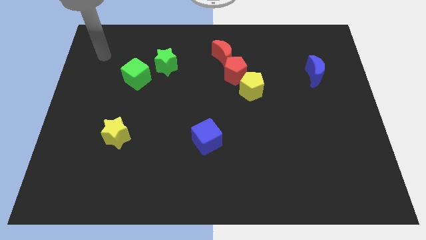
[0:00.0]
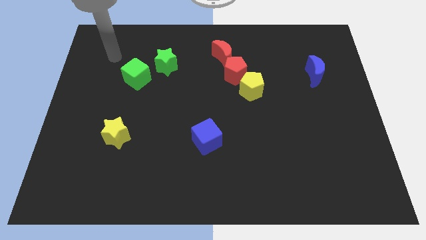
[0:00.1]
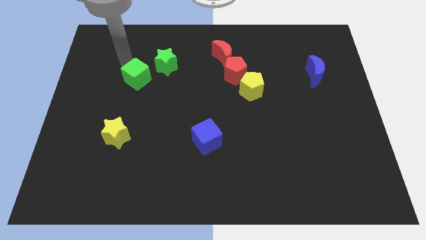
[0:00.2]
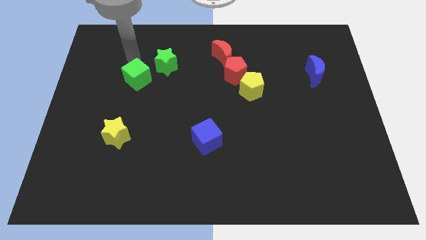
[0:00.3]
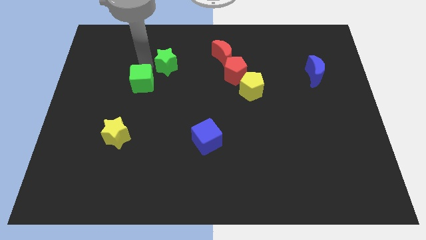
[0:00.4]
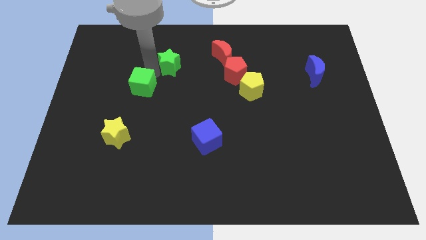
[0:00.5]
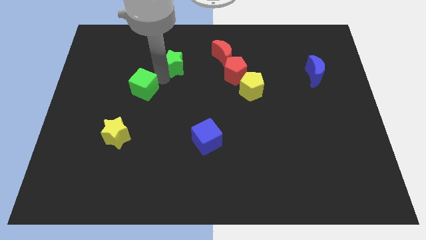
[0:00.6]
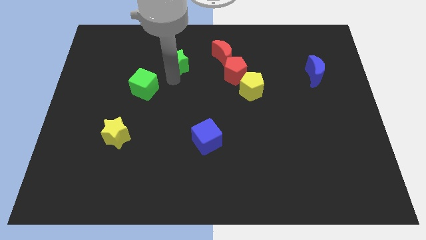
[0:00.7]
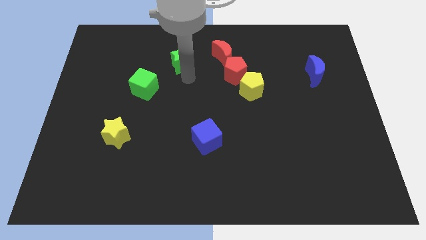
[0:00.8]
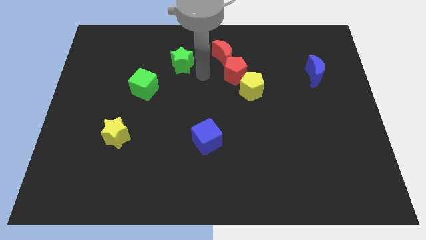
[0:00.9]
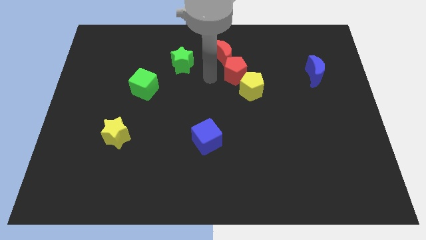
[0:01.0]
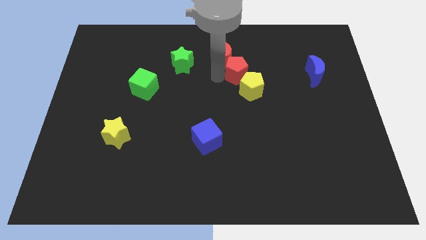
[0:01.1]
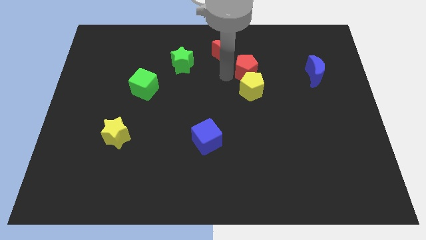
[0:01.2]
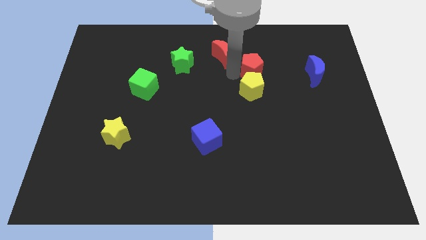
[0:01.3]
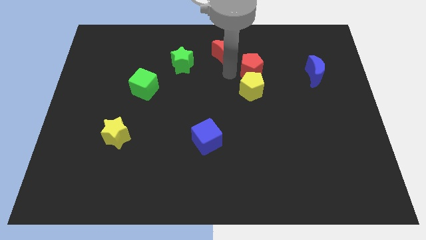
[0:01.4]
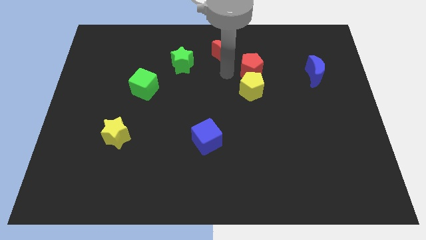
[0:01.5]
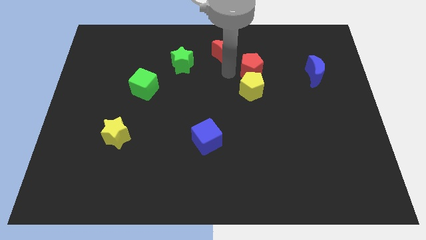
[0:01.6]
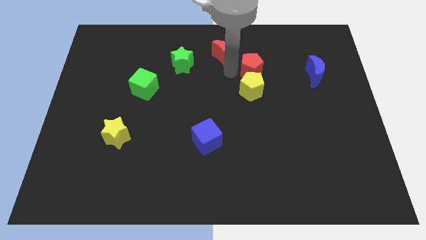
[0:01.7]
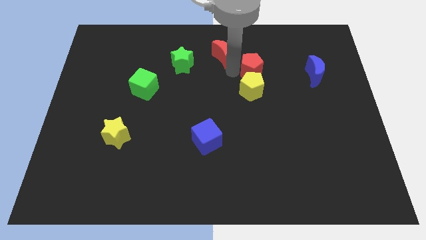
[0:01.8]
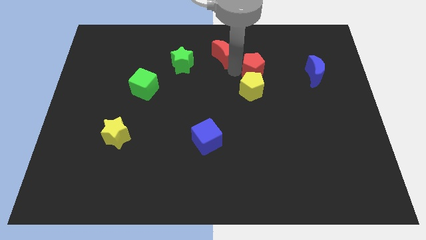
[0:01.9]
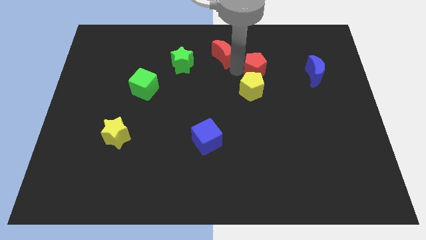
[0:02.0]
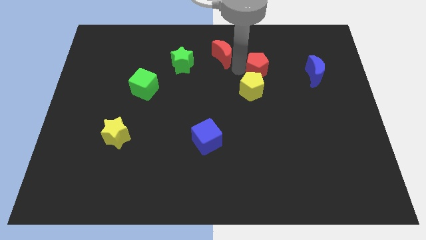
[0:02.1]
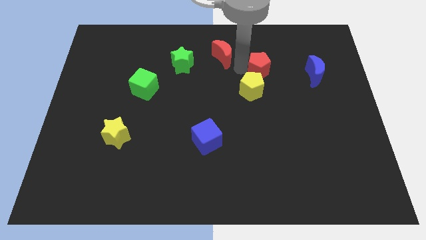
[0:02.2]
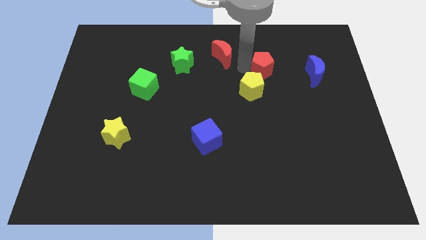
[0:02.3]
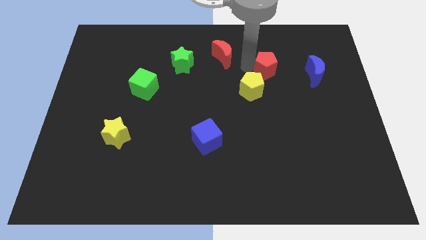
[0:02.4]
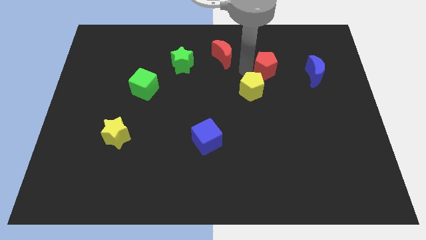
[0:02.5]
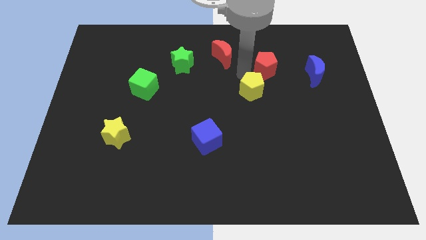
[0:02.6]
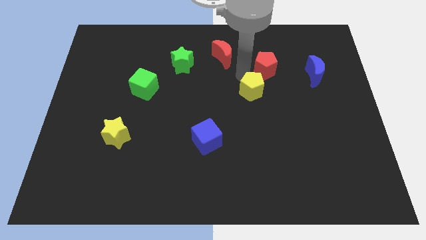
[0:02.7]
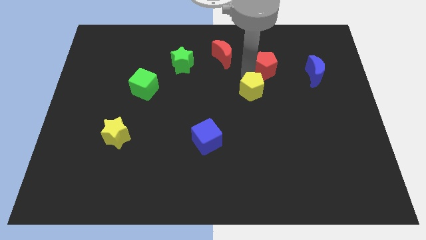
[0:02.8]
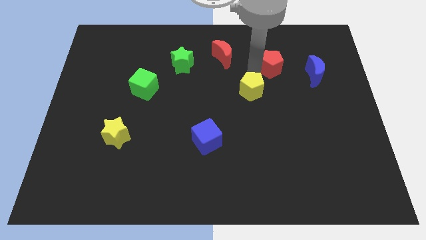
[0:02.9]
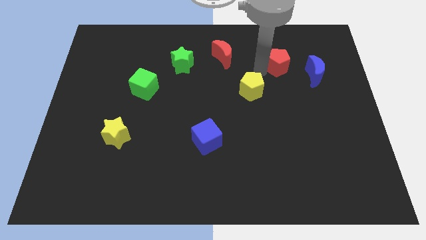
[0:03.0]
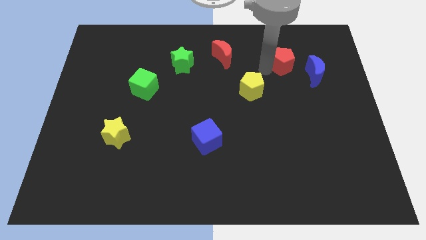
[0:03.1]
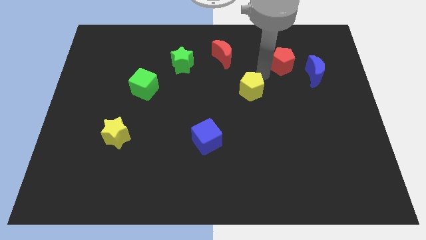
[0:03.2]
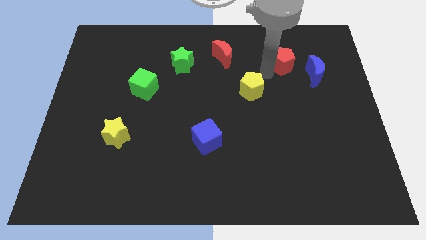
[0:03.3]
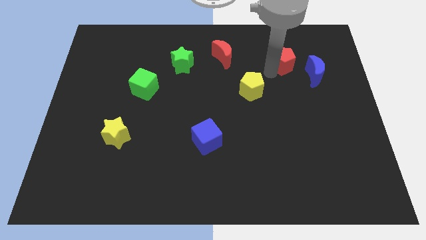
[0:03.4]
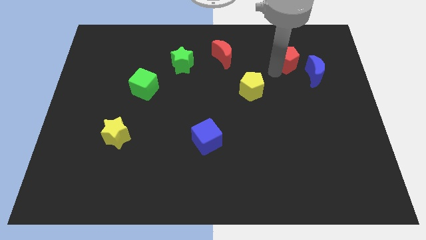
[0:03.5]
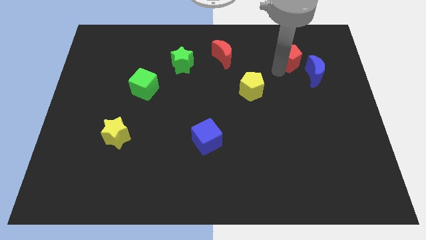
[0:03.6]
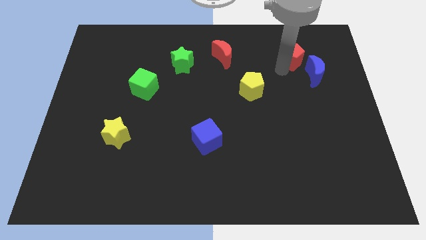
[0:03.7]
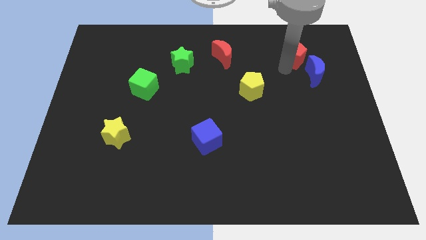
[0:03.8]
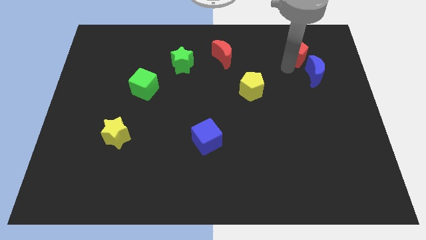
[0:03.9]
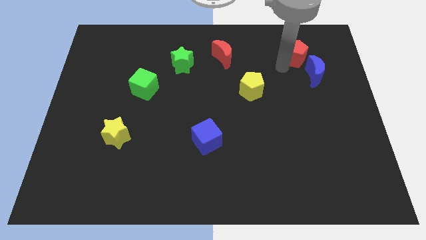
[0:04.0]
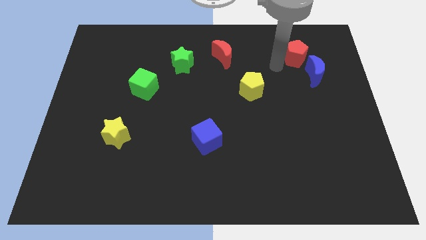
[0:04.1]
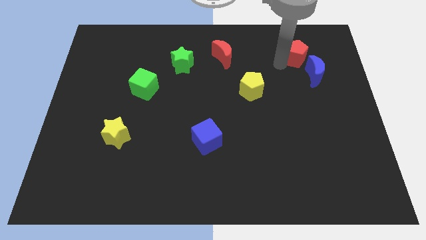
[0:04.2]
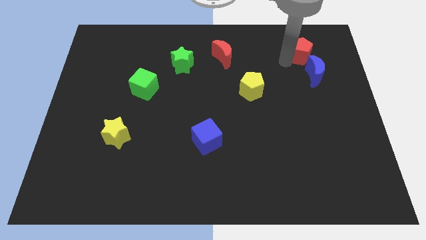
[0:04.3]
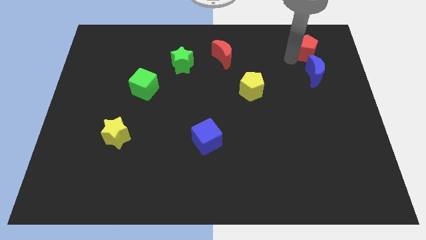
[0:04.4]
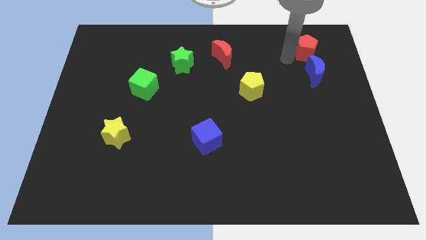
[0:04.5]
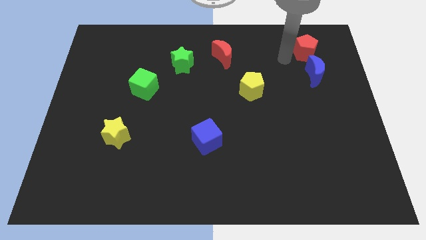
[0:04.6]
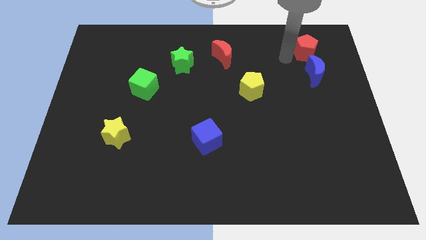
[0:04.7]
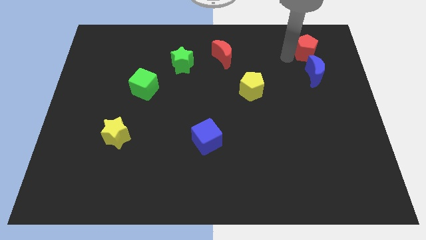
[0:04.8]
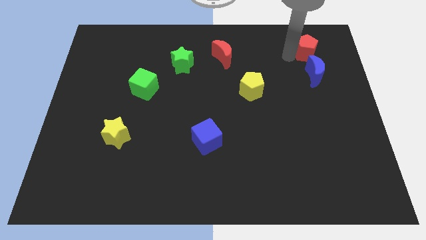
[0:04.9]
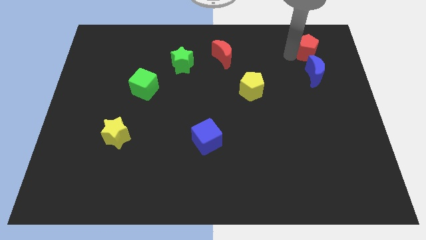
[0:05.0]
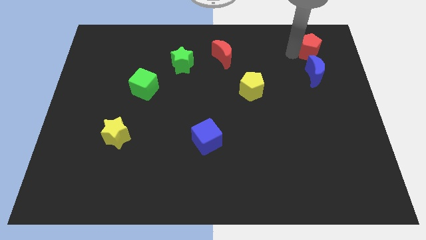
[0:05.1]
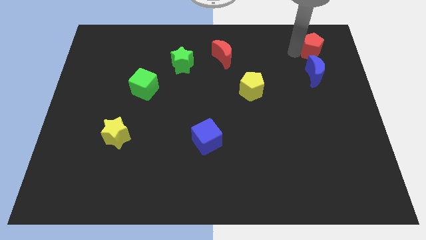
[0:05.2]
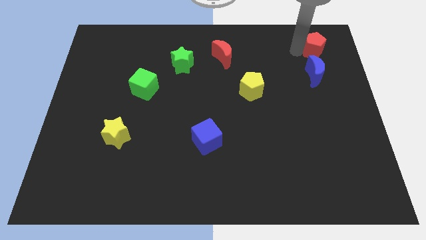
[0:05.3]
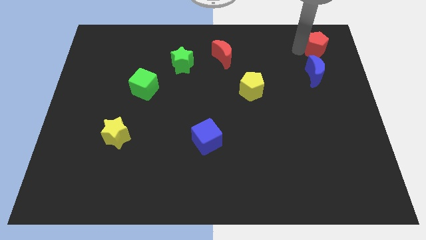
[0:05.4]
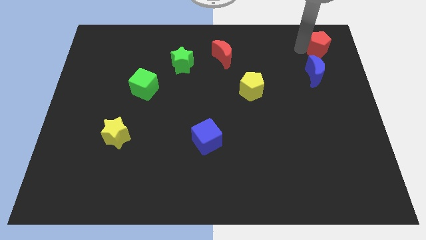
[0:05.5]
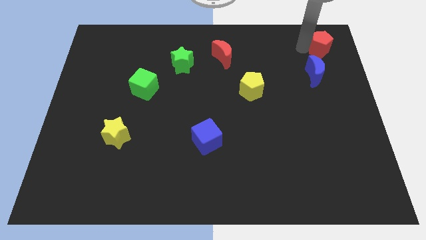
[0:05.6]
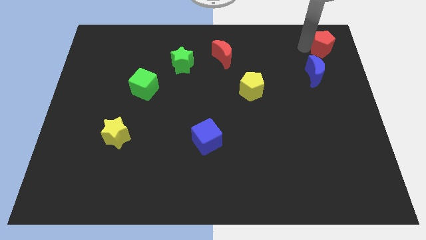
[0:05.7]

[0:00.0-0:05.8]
slide the red pentagon to the top right

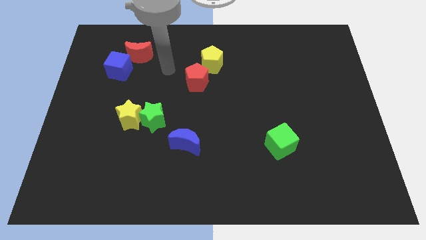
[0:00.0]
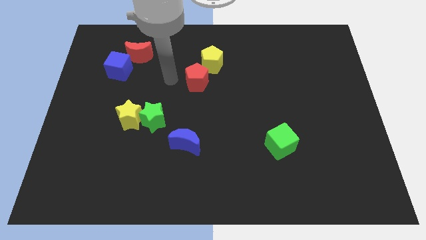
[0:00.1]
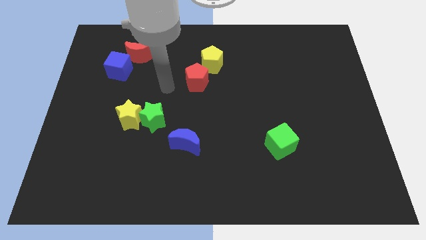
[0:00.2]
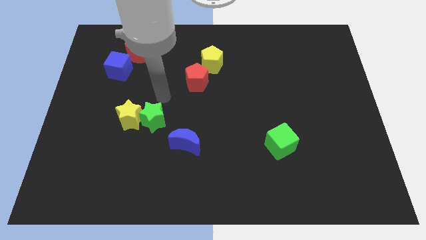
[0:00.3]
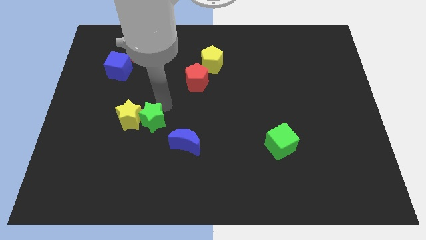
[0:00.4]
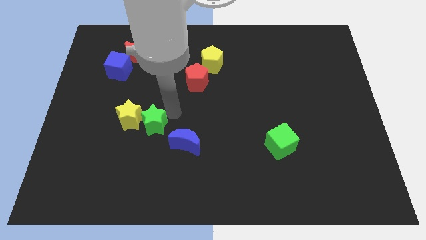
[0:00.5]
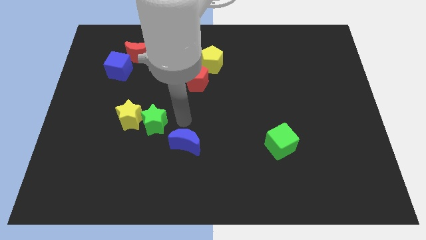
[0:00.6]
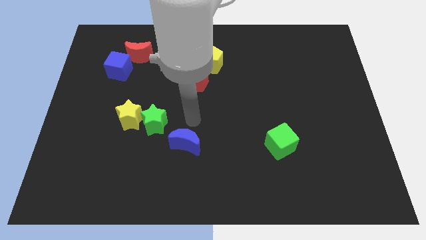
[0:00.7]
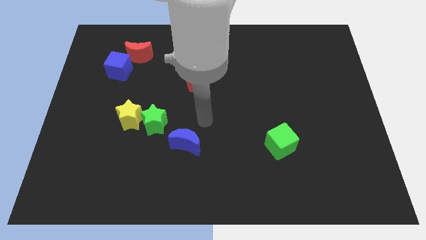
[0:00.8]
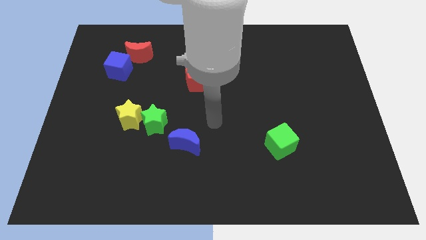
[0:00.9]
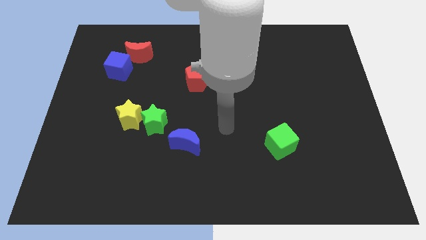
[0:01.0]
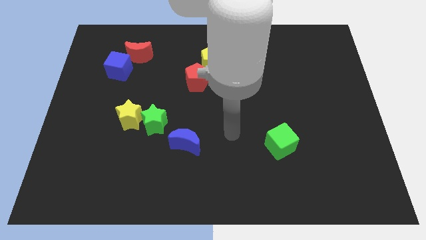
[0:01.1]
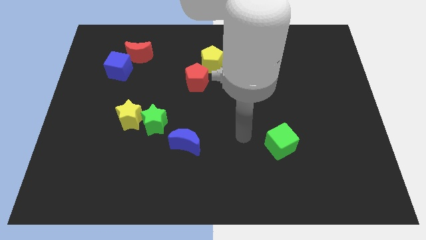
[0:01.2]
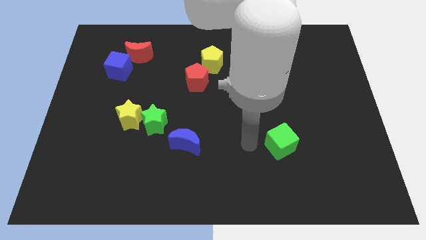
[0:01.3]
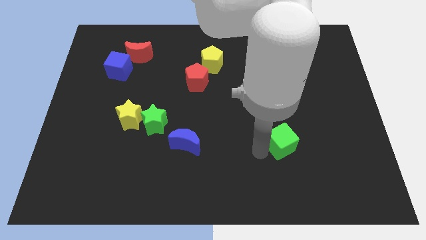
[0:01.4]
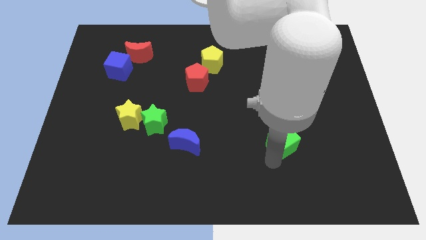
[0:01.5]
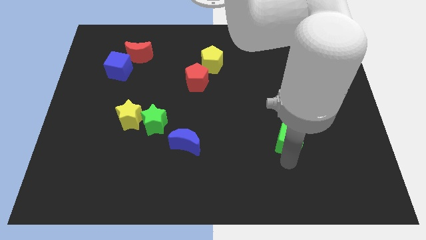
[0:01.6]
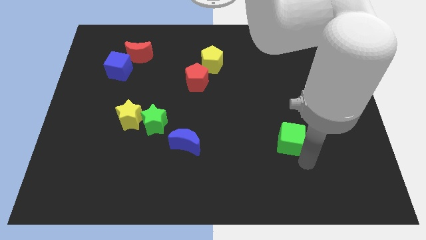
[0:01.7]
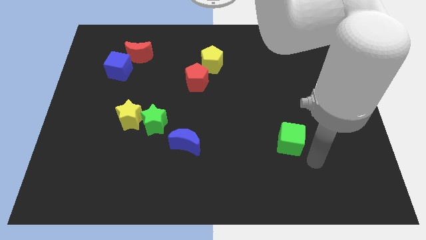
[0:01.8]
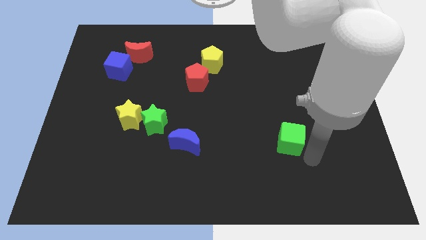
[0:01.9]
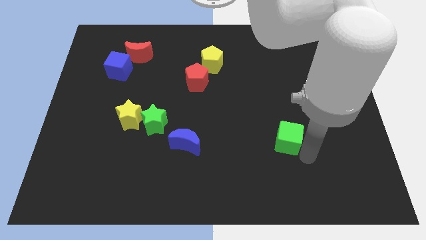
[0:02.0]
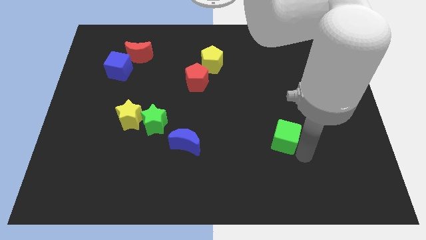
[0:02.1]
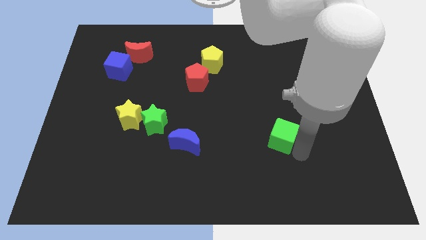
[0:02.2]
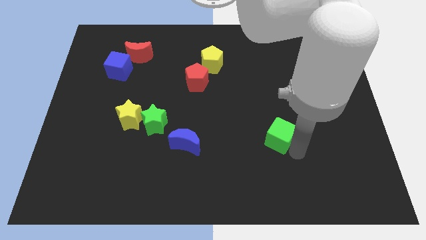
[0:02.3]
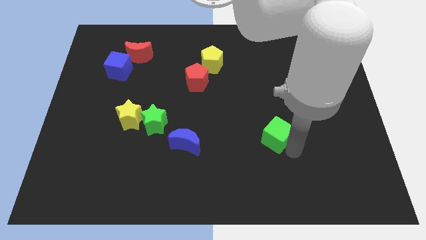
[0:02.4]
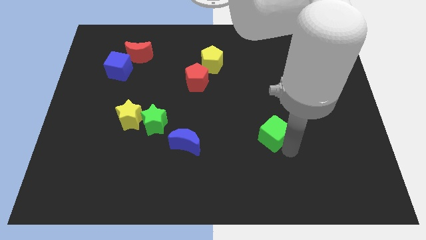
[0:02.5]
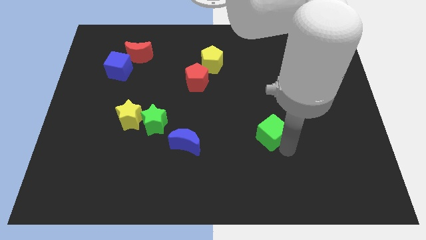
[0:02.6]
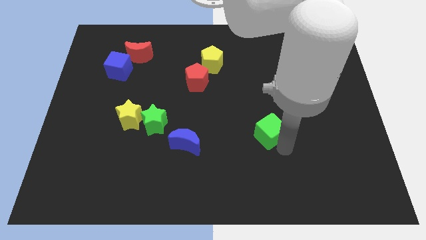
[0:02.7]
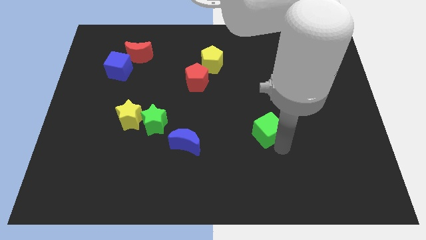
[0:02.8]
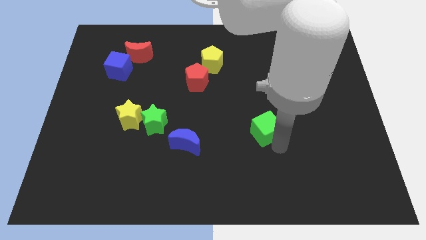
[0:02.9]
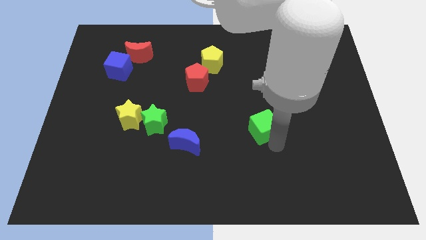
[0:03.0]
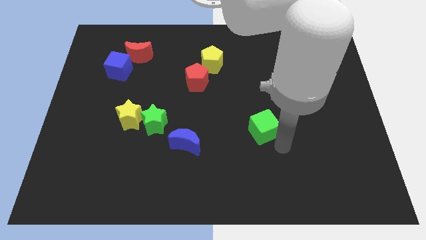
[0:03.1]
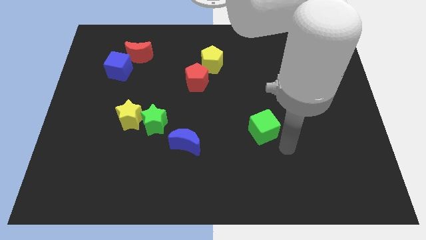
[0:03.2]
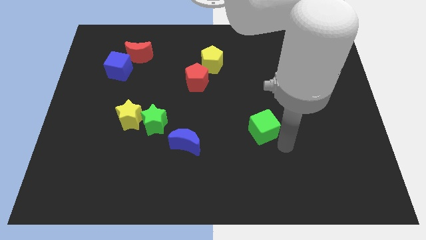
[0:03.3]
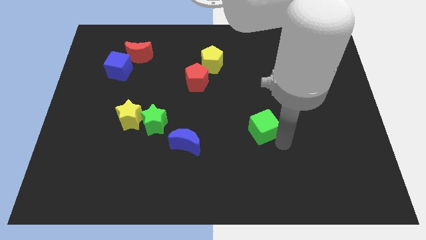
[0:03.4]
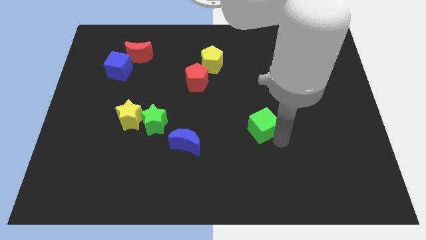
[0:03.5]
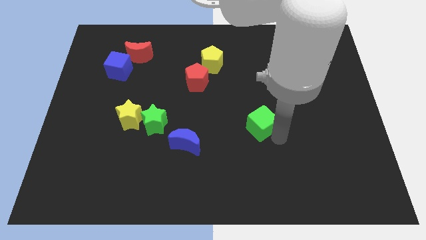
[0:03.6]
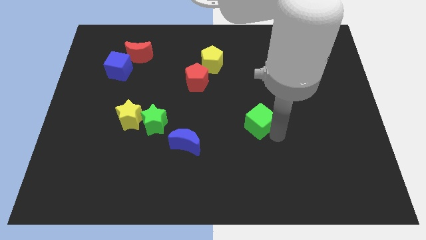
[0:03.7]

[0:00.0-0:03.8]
push the green cube to the middle of the board
